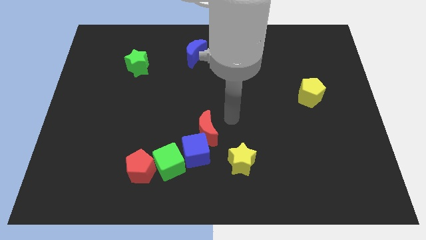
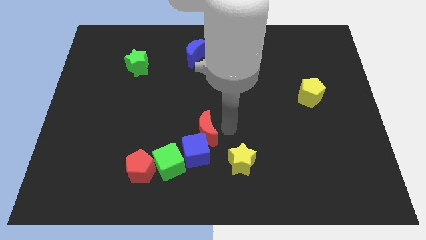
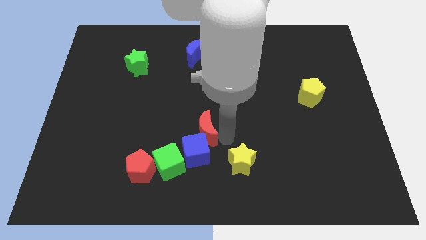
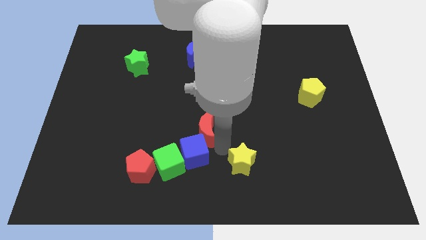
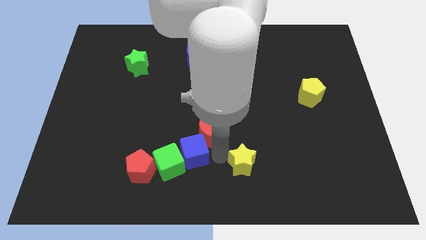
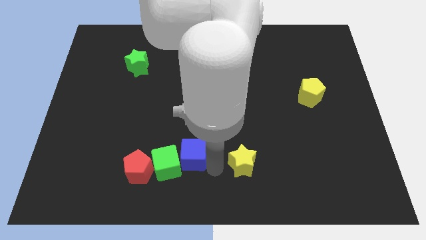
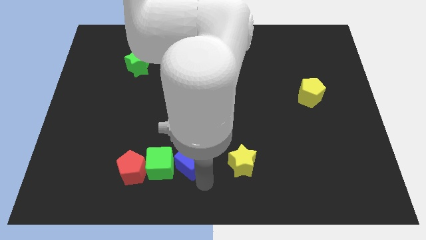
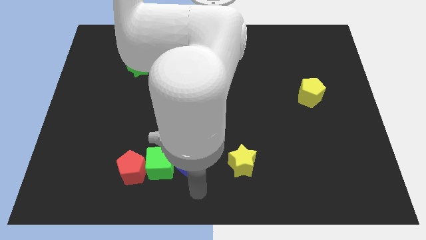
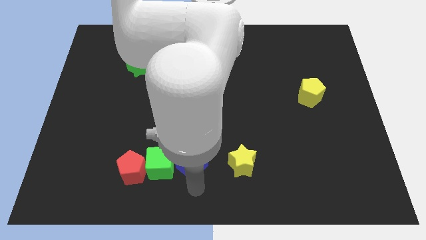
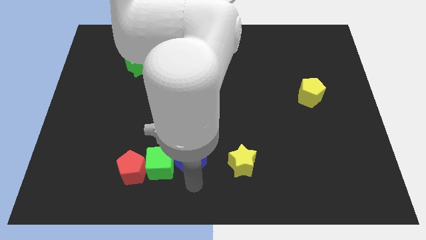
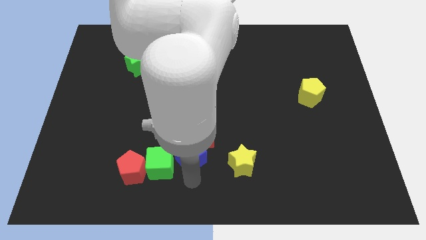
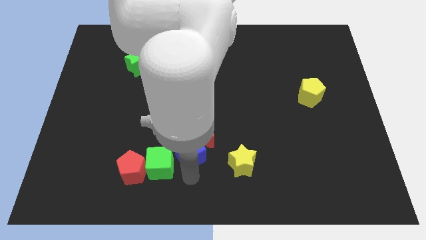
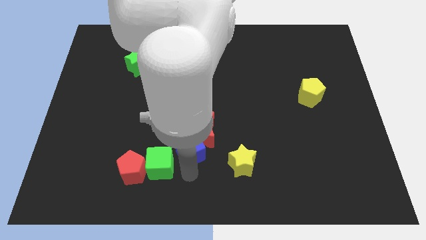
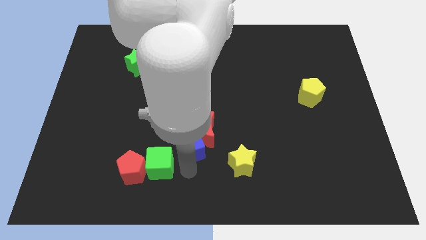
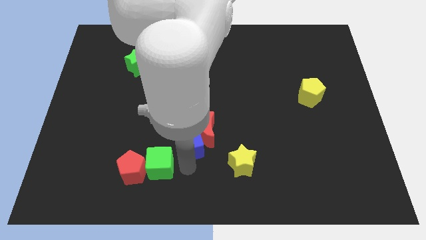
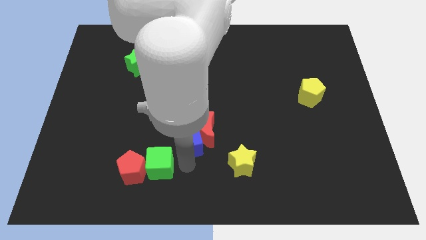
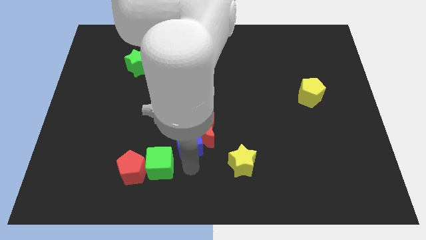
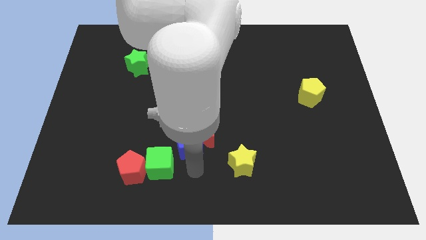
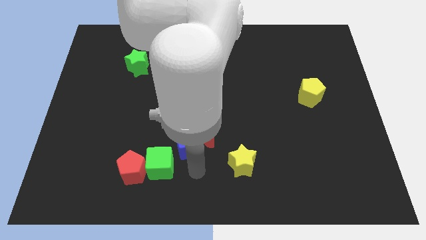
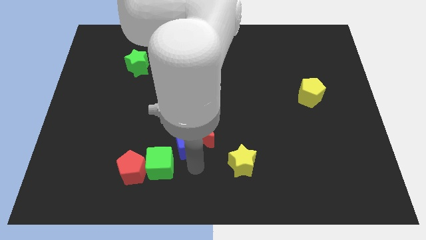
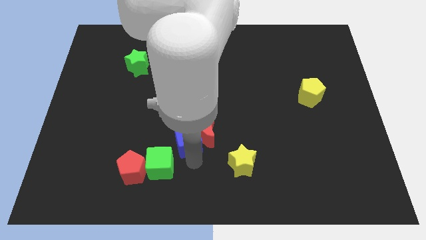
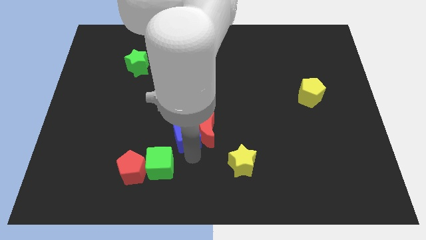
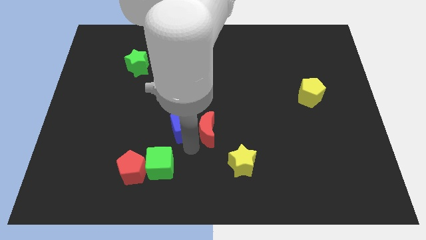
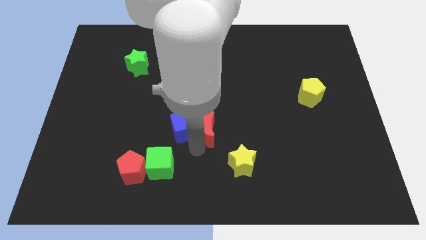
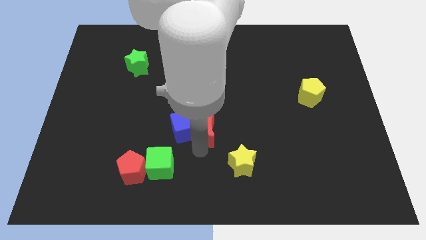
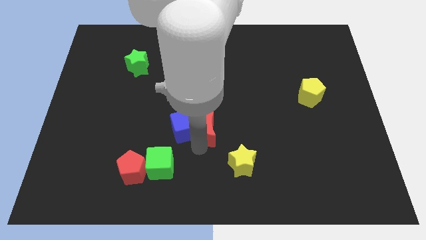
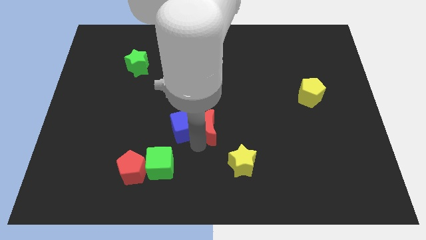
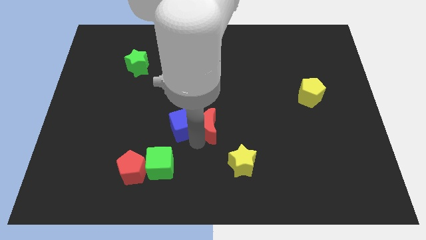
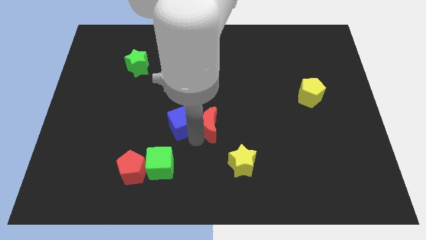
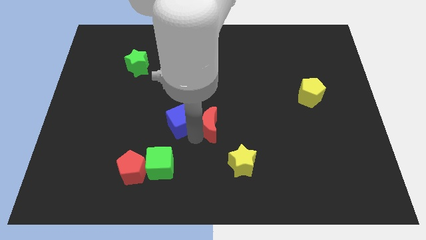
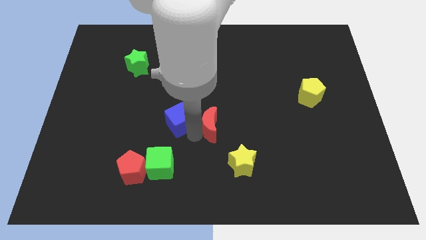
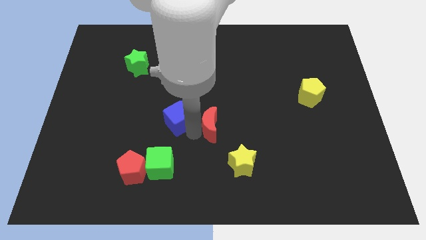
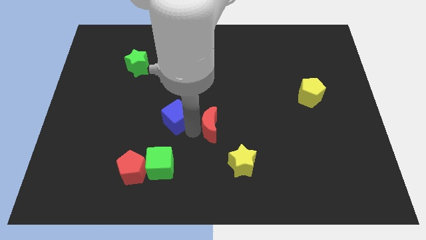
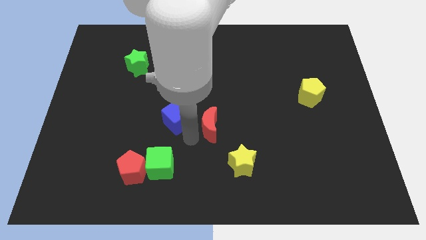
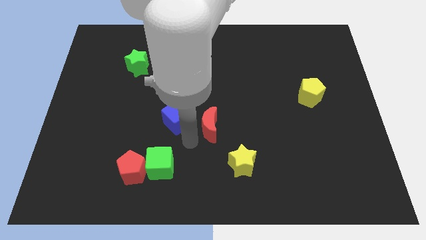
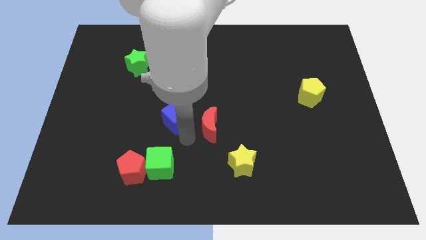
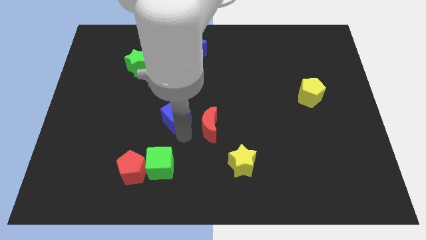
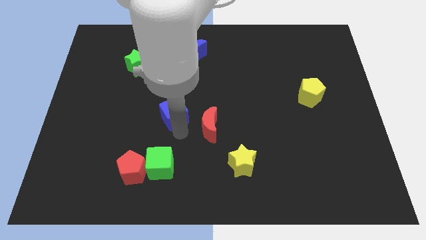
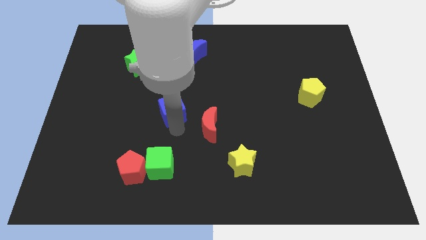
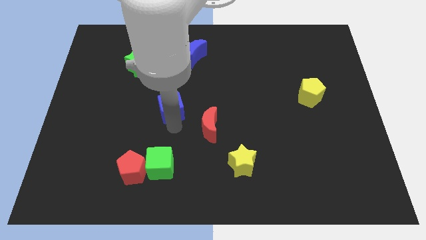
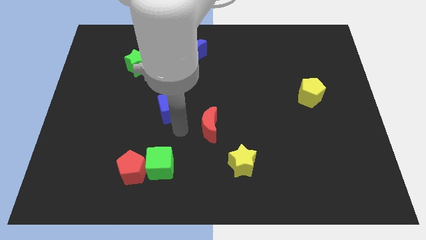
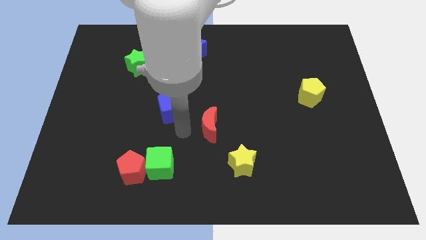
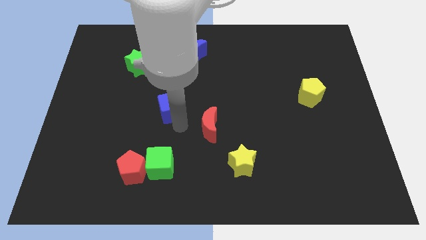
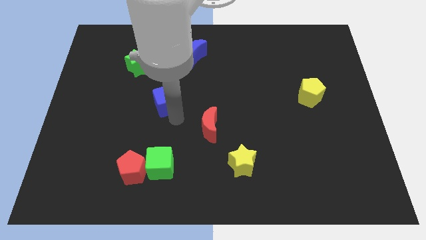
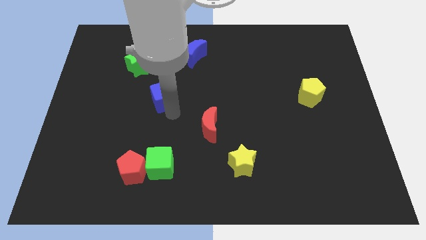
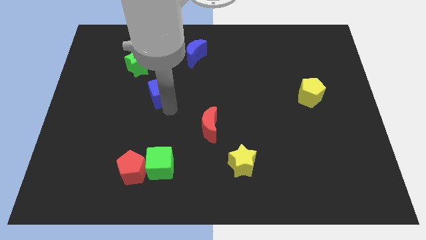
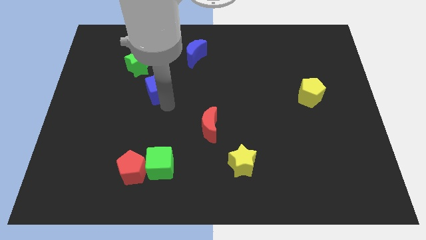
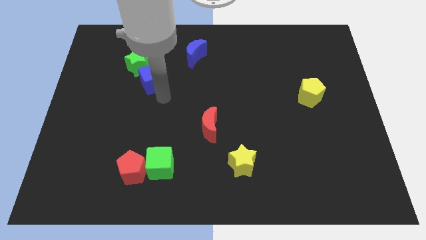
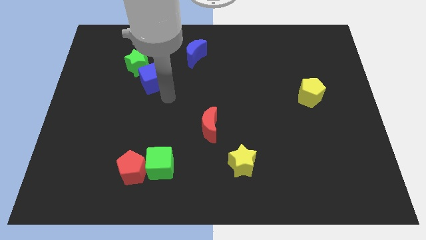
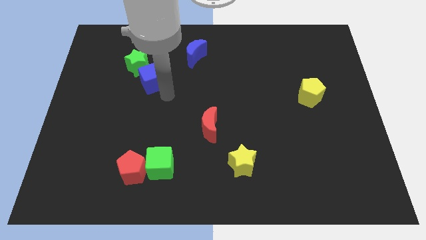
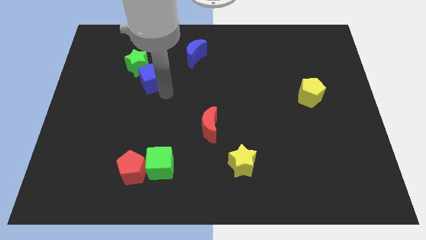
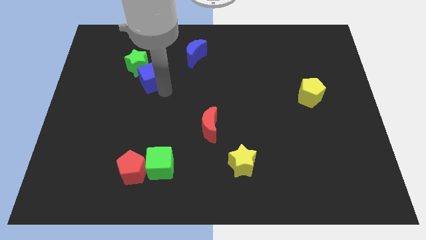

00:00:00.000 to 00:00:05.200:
slide the blue cube next to the green star

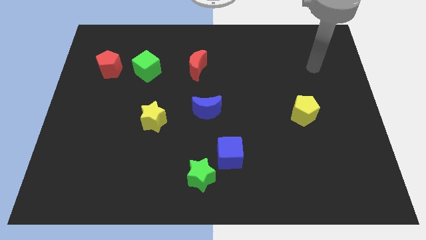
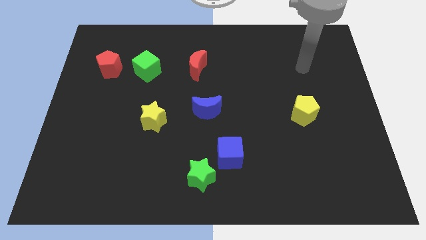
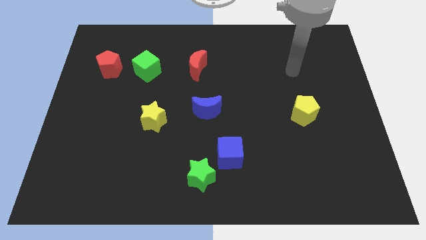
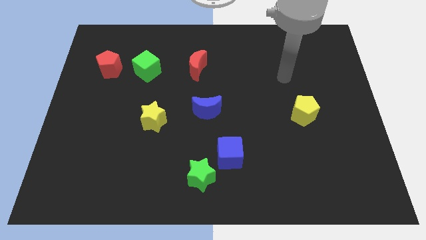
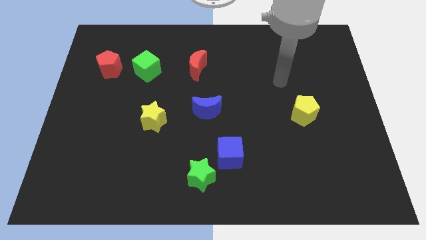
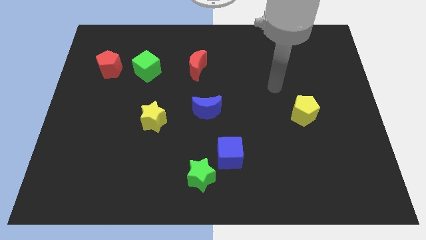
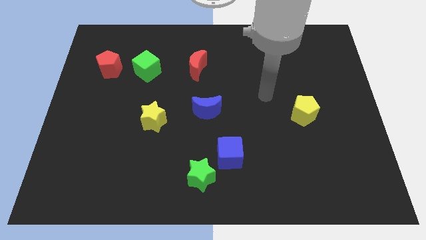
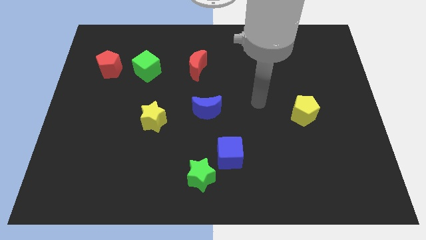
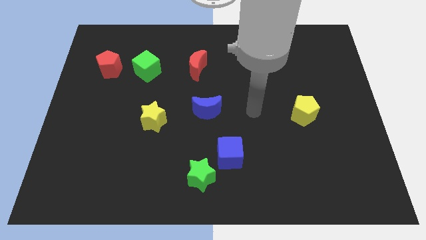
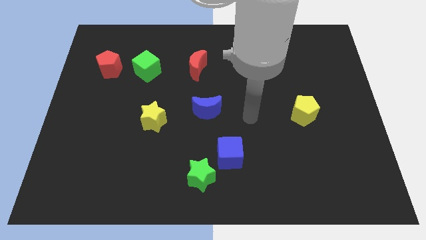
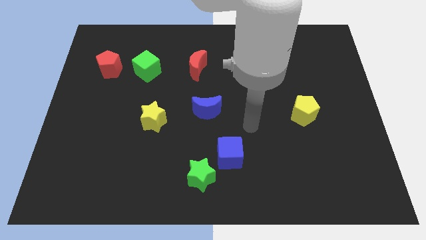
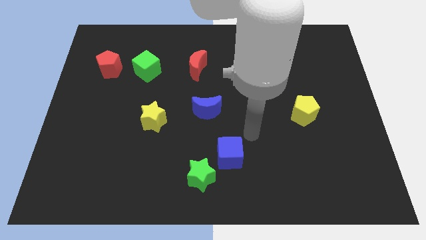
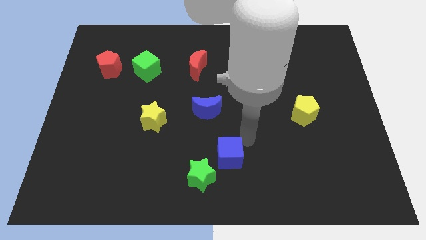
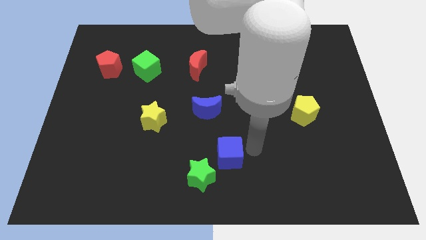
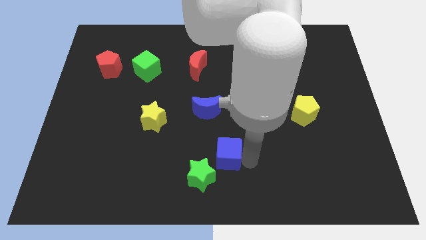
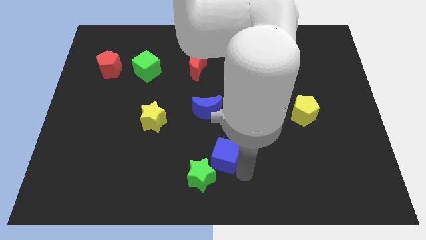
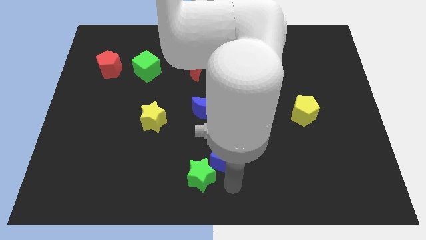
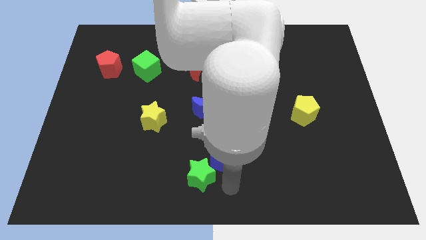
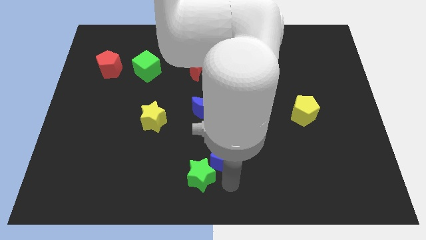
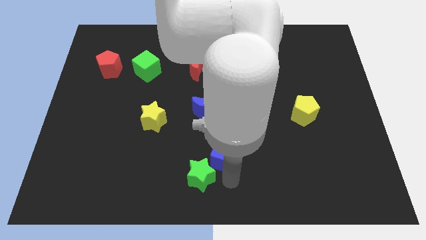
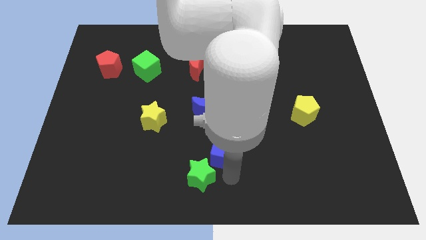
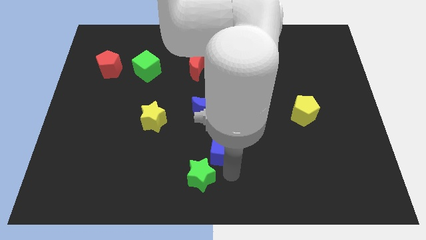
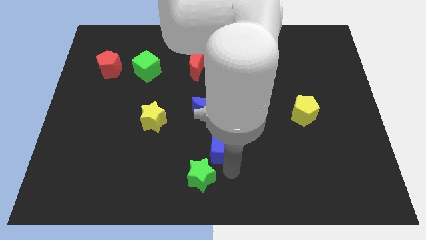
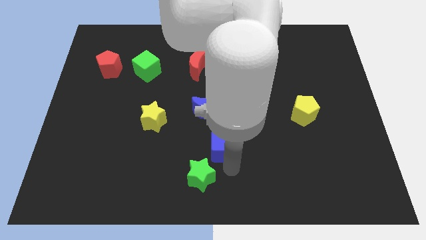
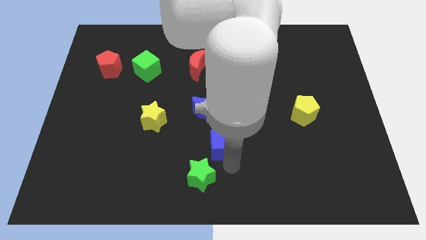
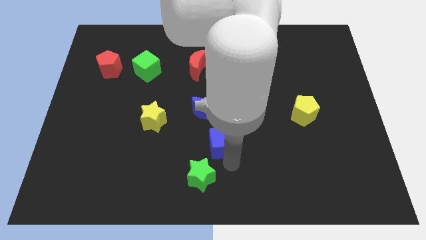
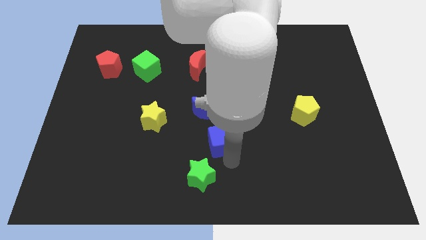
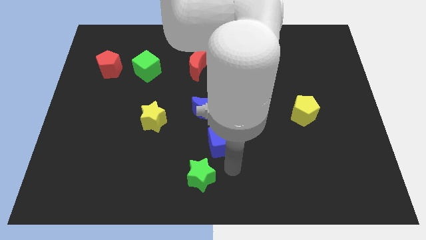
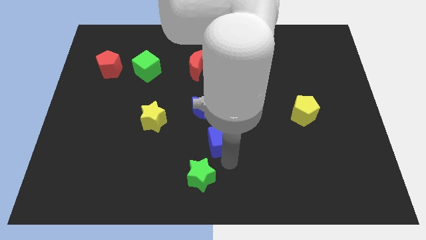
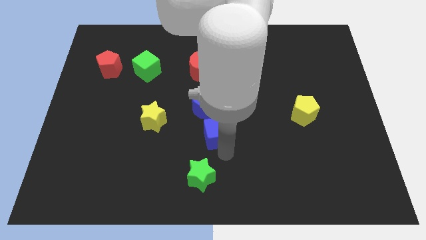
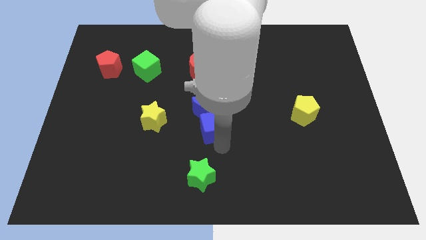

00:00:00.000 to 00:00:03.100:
put the blue cube towards the blue moon
